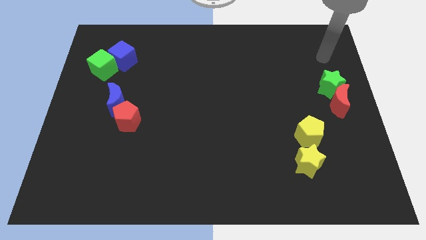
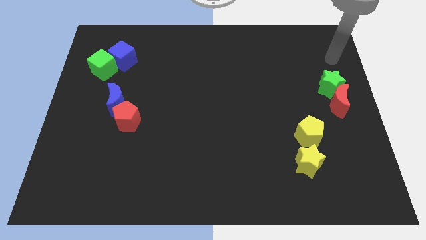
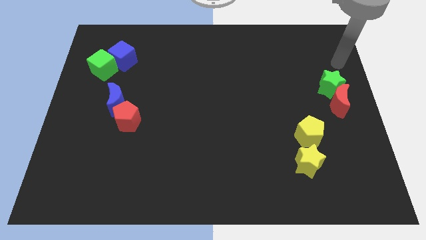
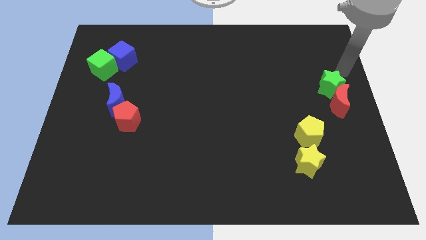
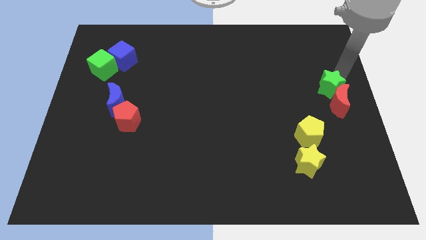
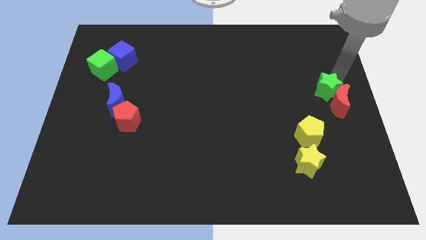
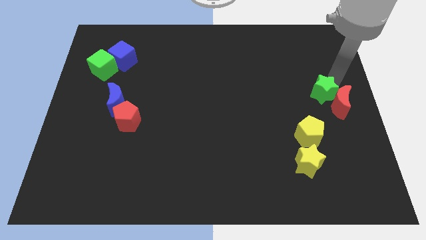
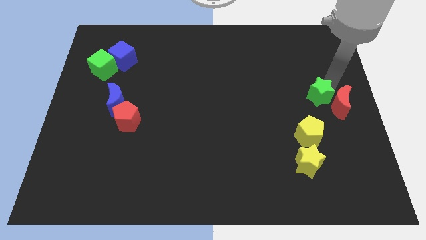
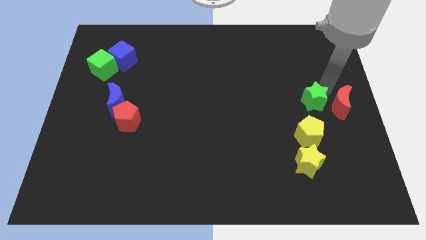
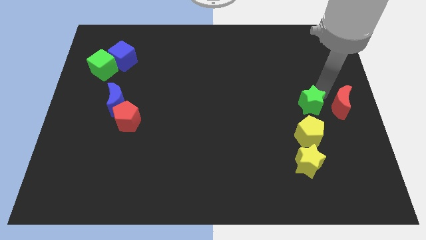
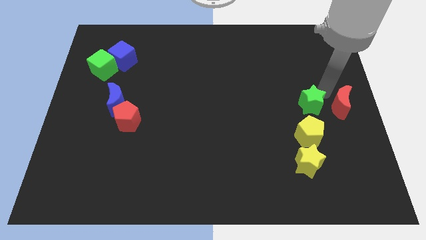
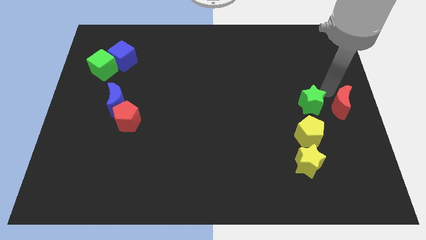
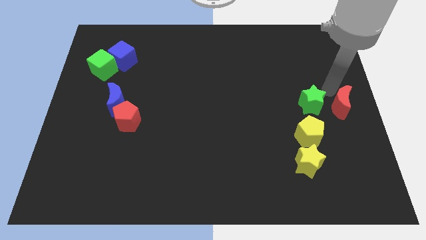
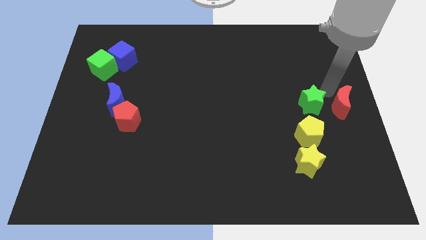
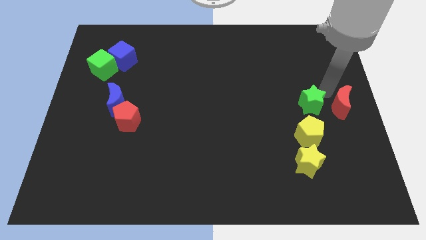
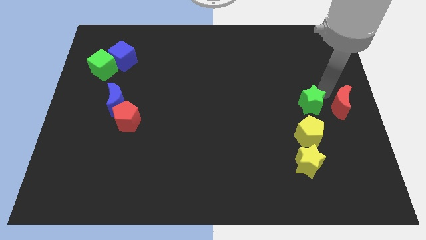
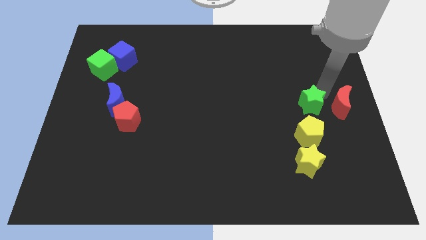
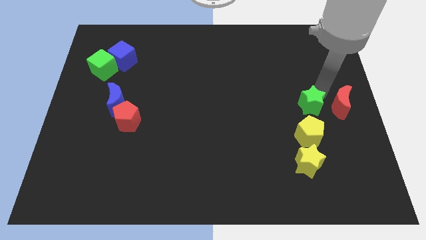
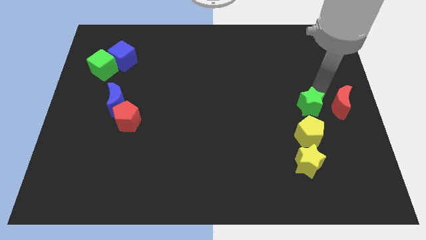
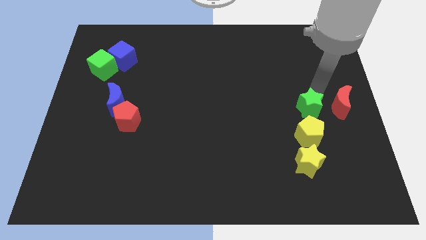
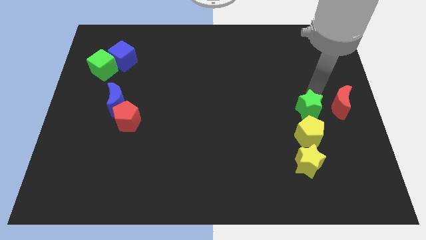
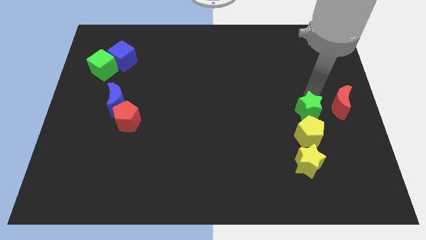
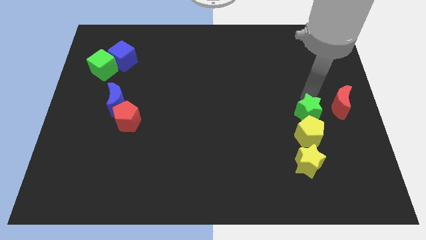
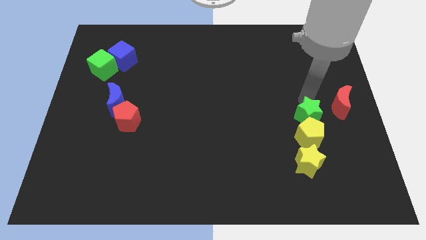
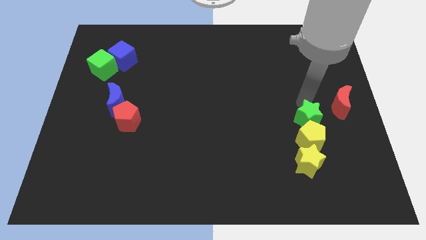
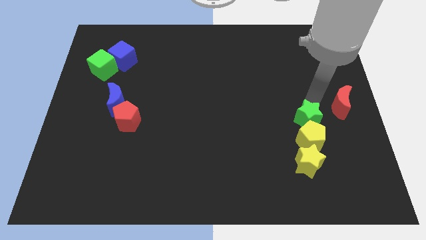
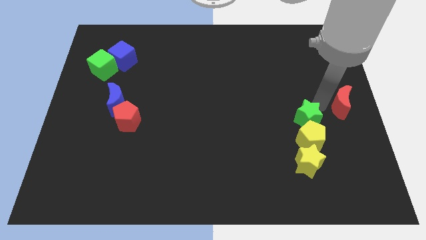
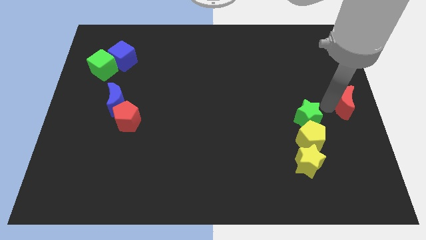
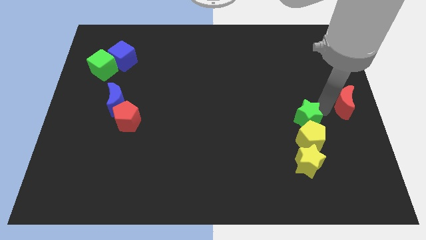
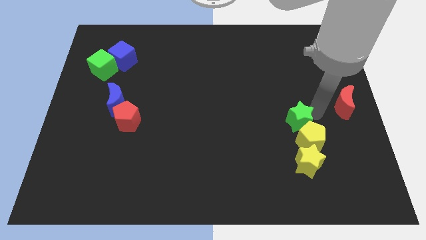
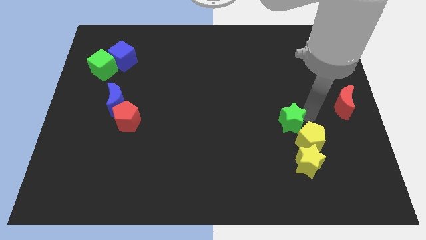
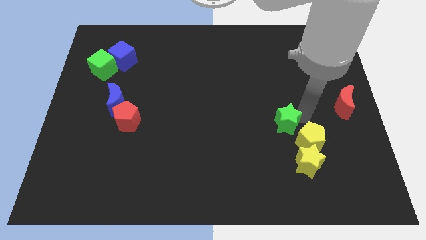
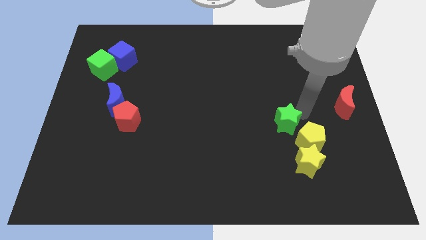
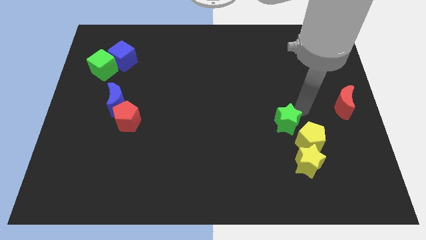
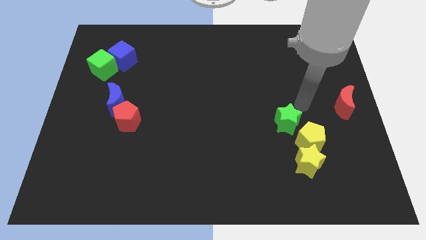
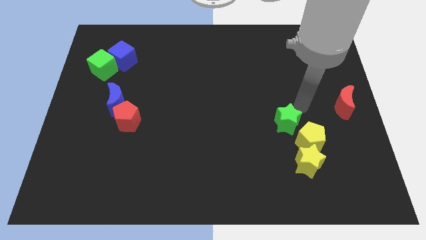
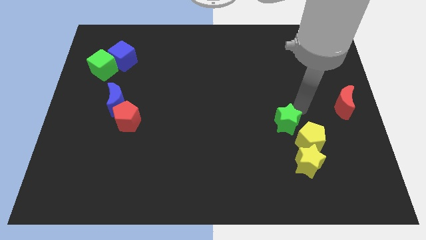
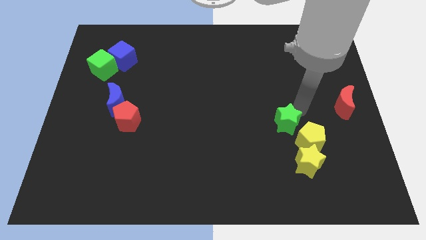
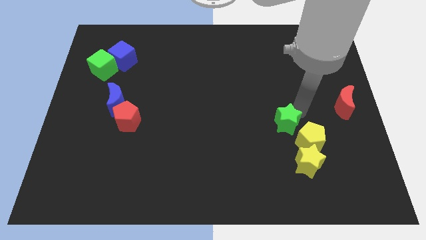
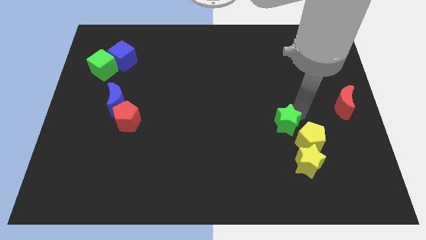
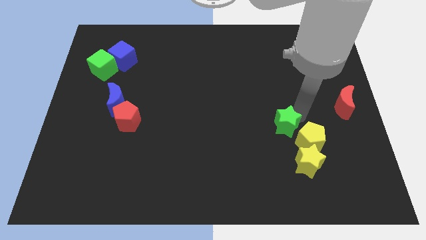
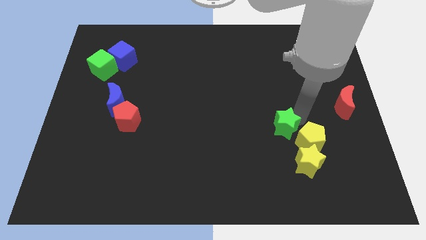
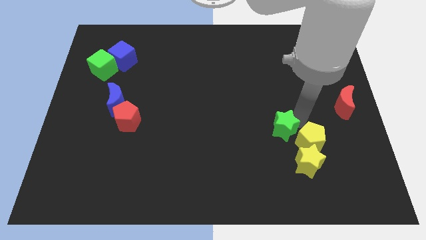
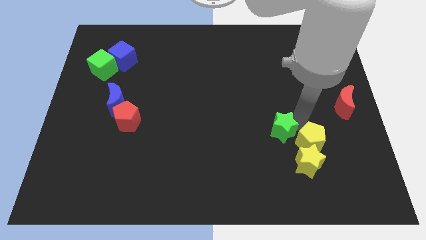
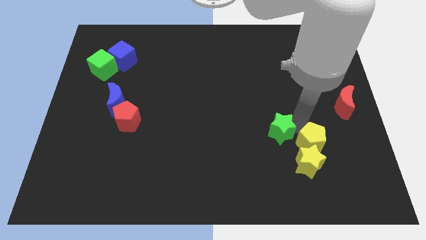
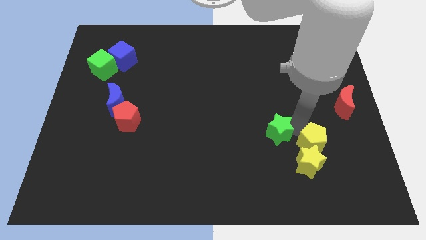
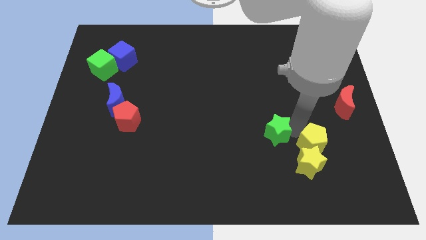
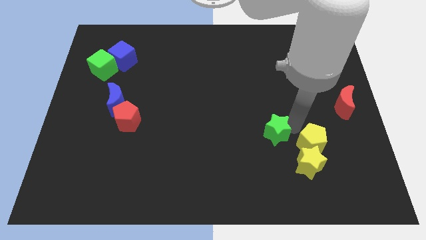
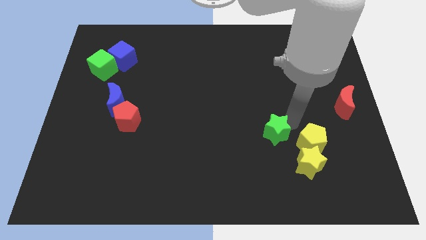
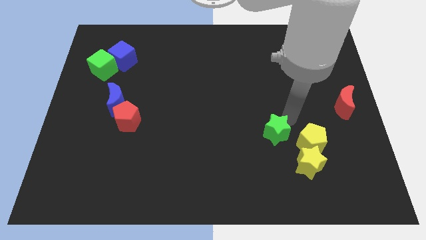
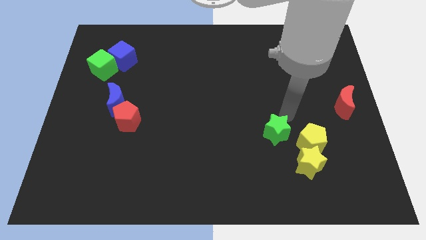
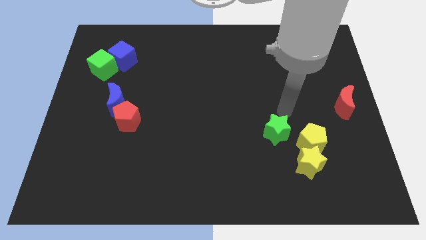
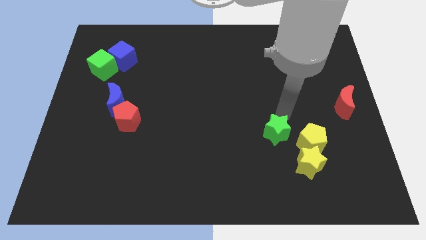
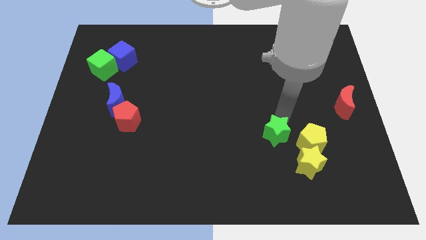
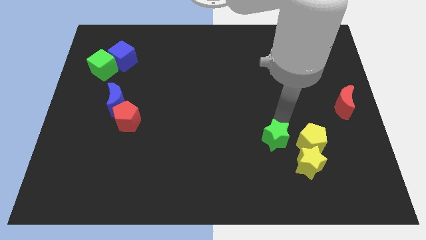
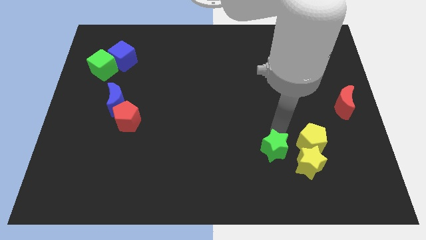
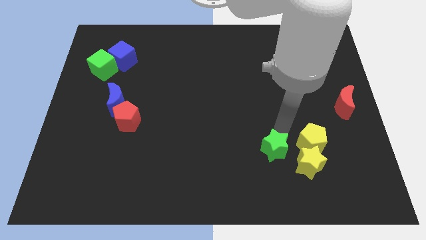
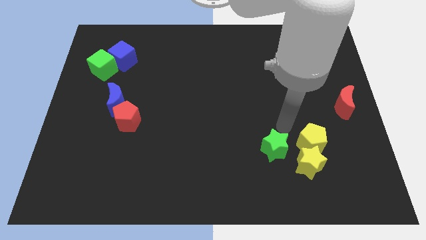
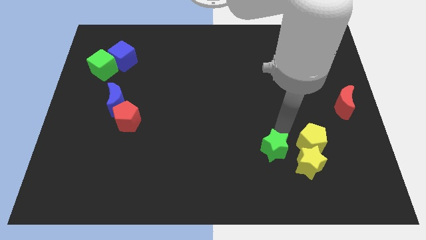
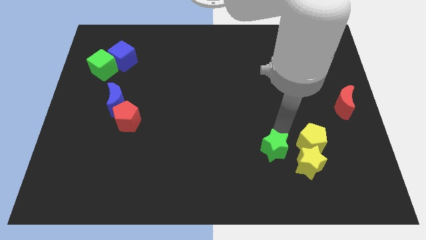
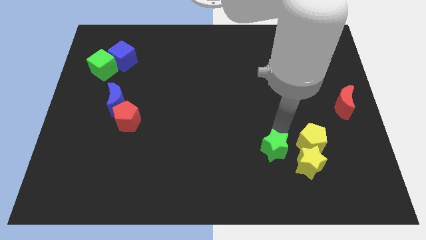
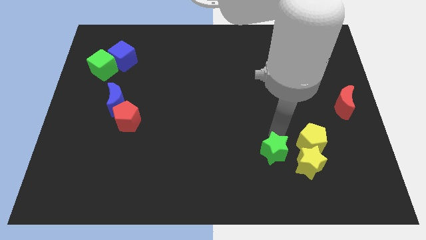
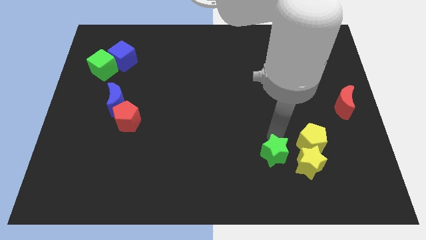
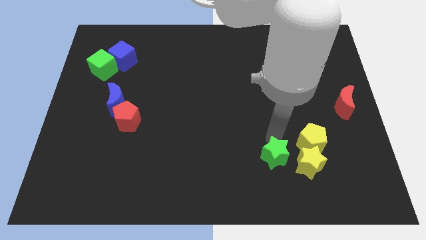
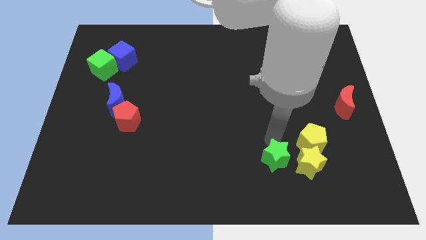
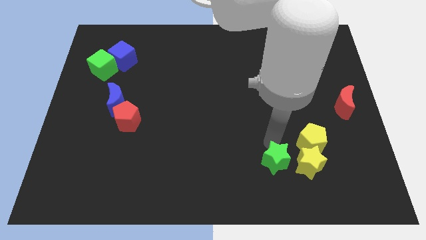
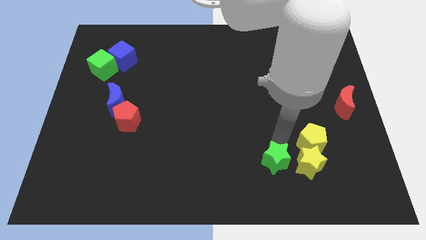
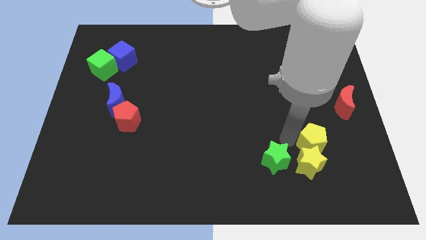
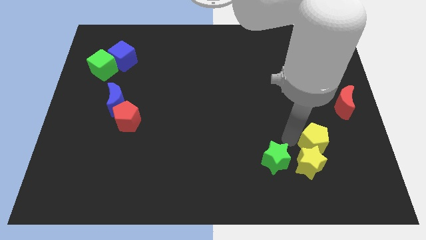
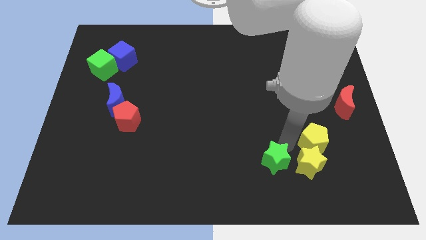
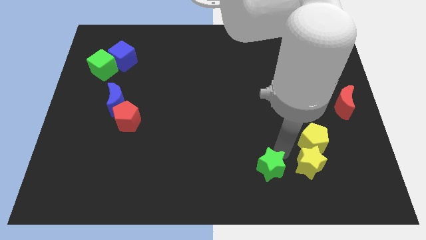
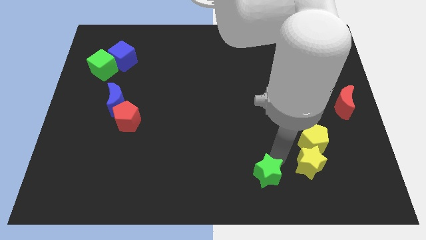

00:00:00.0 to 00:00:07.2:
put the green star to the bottom side
